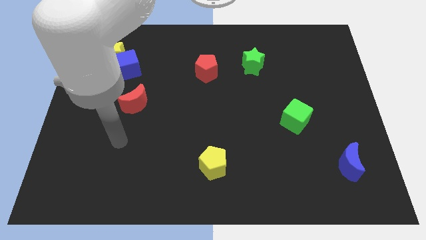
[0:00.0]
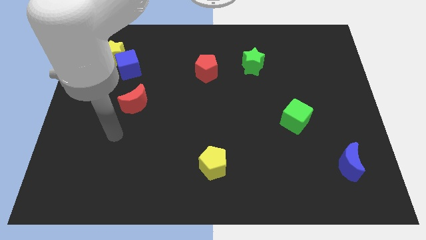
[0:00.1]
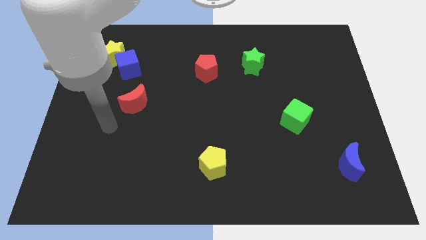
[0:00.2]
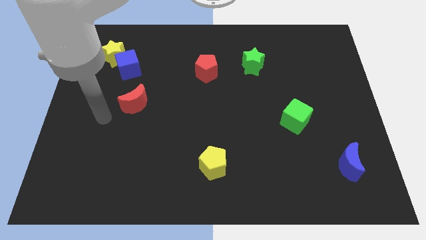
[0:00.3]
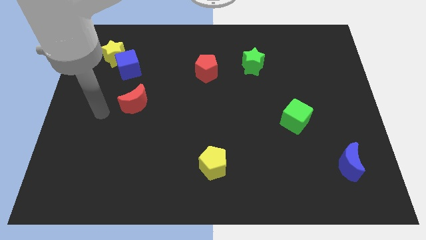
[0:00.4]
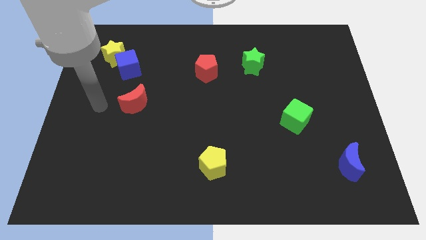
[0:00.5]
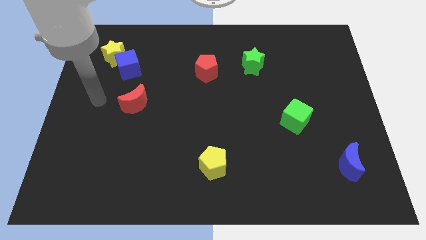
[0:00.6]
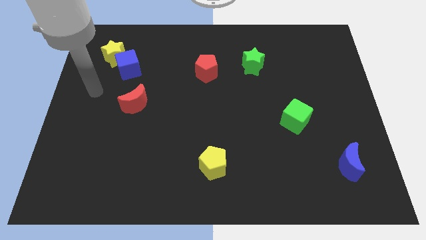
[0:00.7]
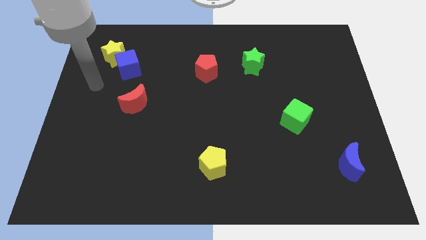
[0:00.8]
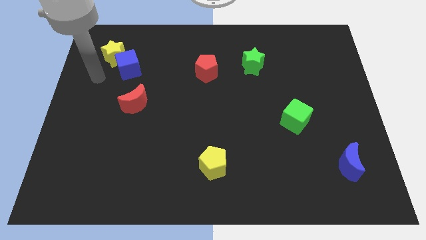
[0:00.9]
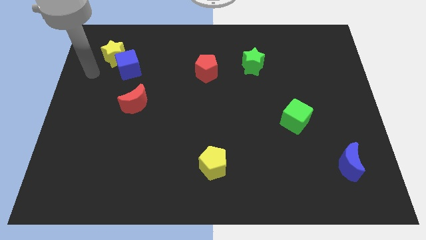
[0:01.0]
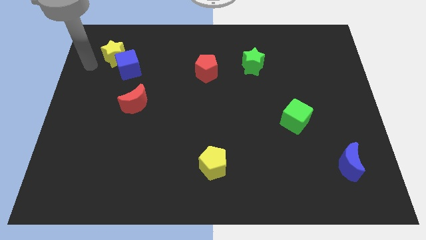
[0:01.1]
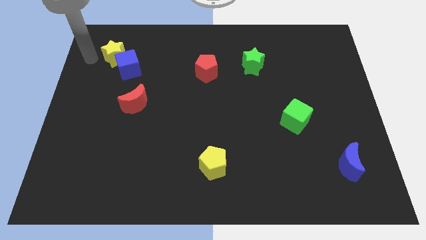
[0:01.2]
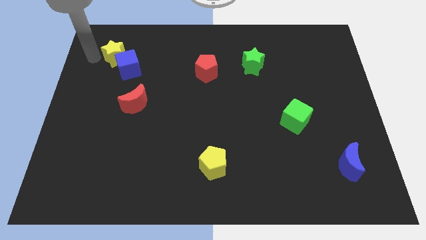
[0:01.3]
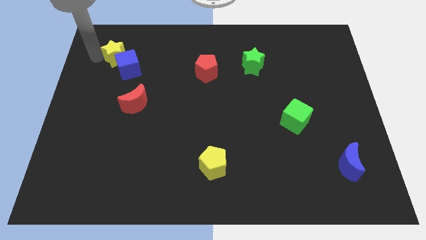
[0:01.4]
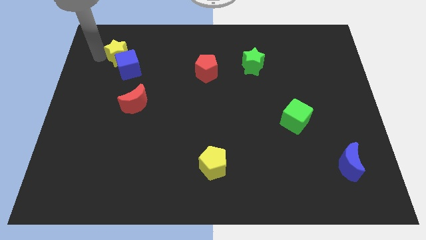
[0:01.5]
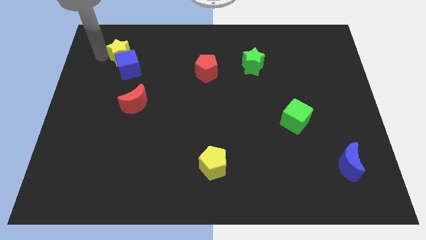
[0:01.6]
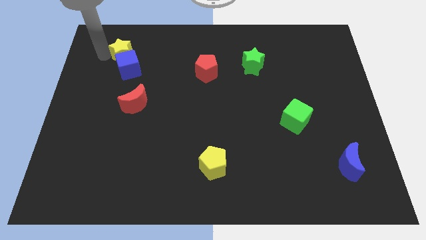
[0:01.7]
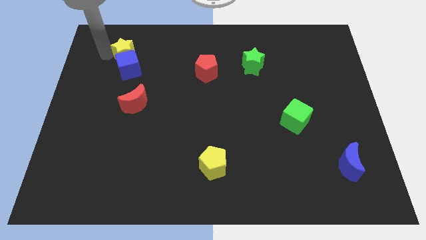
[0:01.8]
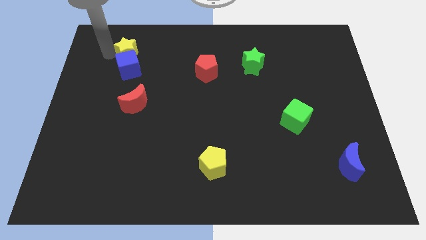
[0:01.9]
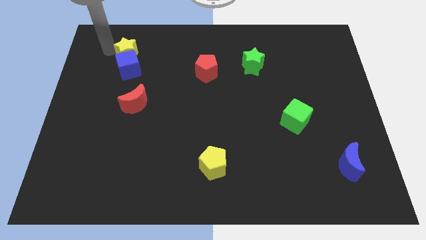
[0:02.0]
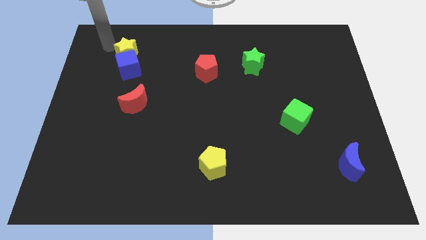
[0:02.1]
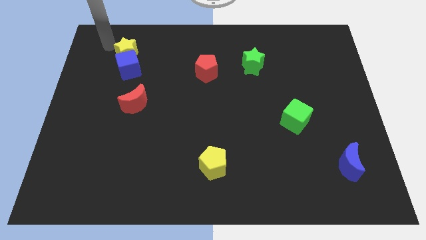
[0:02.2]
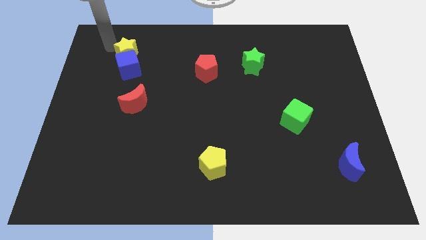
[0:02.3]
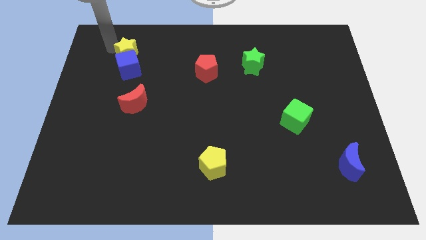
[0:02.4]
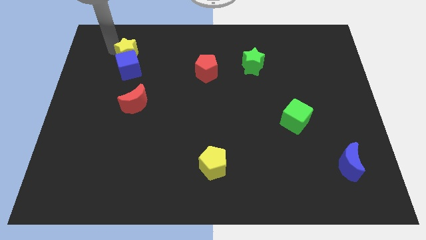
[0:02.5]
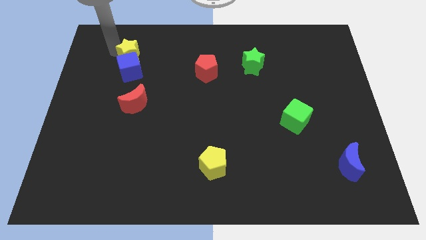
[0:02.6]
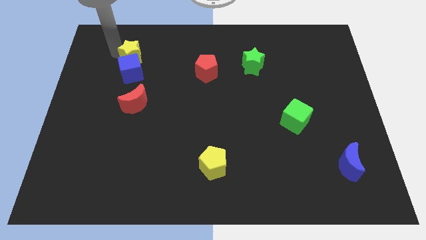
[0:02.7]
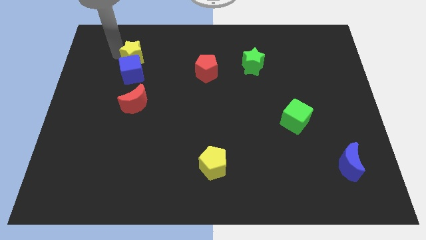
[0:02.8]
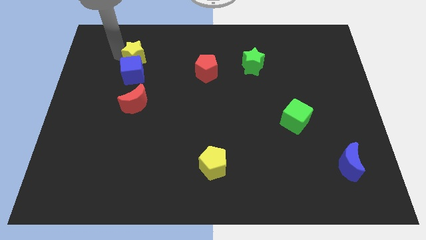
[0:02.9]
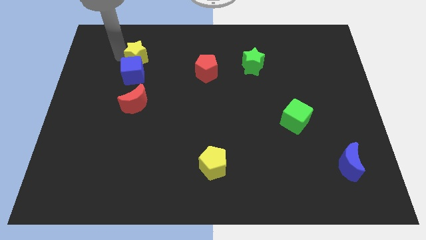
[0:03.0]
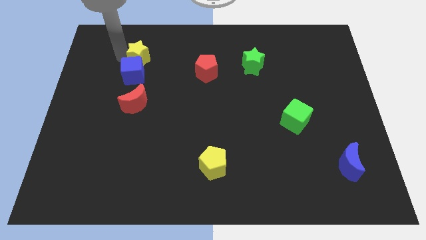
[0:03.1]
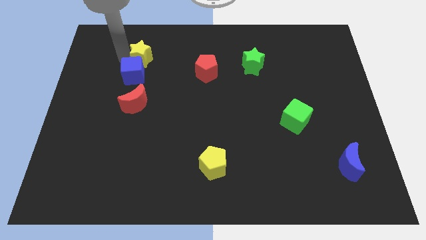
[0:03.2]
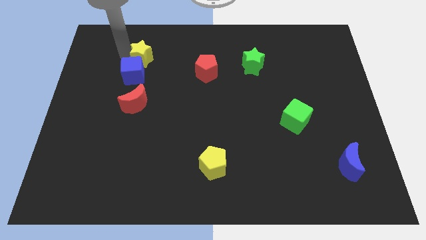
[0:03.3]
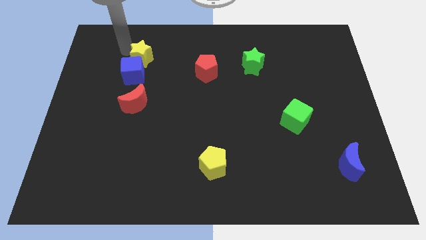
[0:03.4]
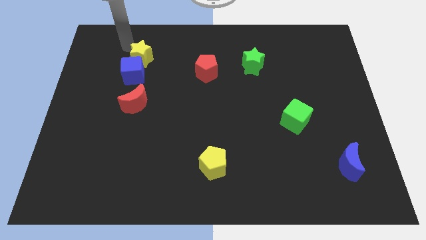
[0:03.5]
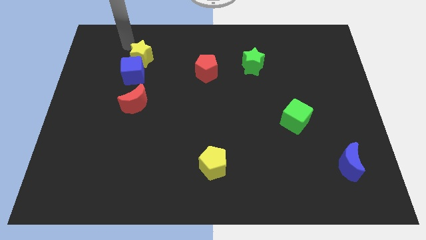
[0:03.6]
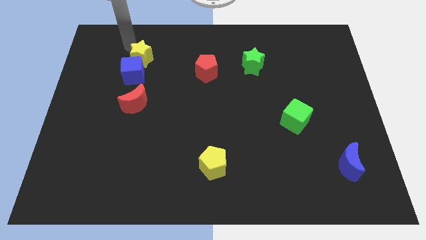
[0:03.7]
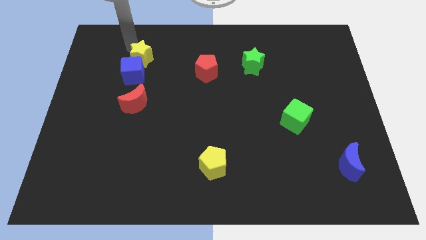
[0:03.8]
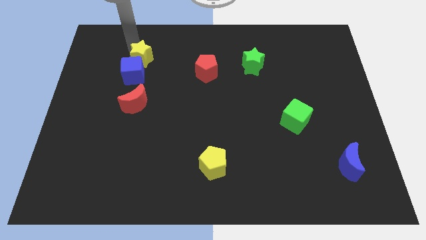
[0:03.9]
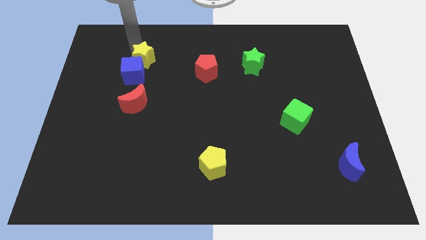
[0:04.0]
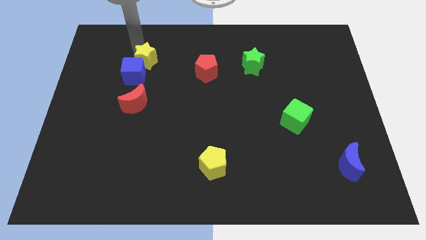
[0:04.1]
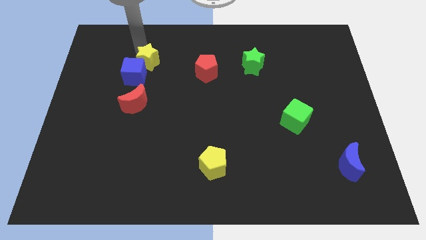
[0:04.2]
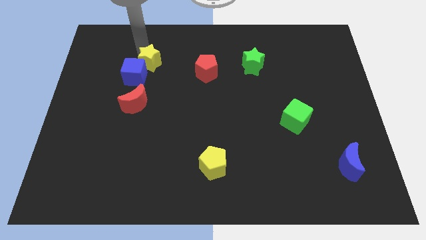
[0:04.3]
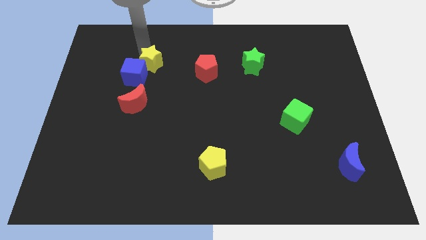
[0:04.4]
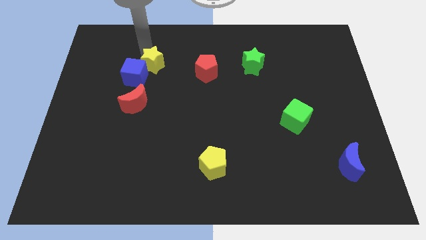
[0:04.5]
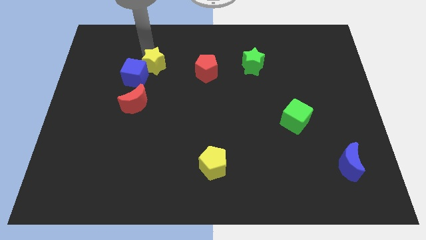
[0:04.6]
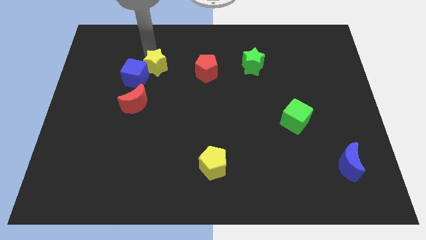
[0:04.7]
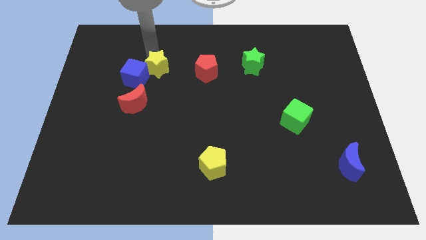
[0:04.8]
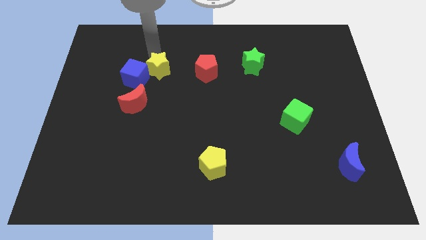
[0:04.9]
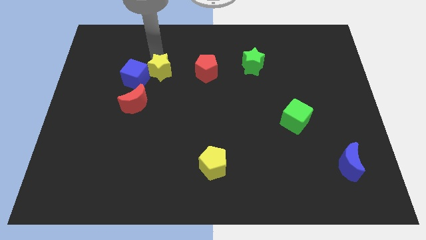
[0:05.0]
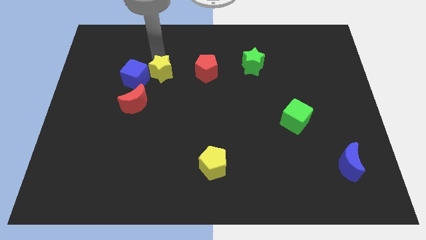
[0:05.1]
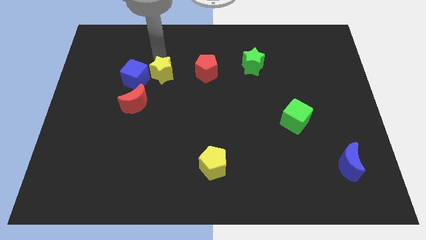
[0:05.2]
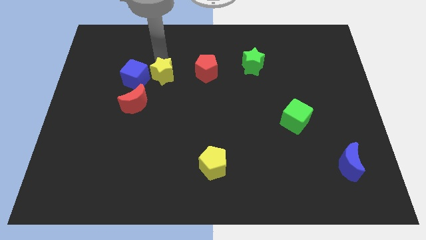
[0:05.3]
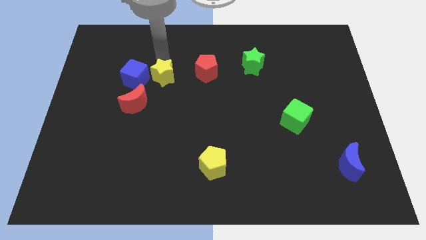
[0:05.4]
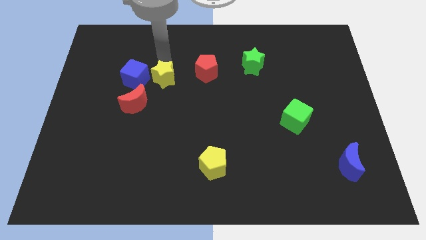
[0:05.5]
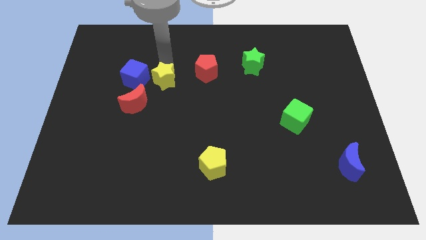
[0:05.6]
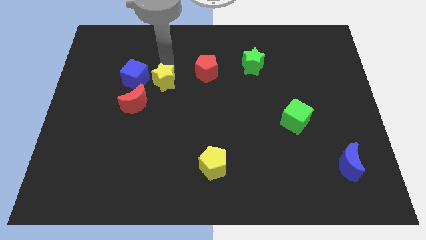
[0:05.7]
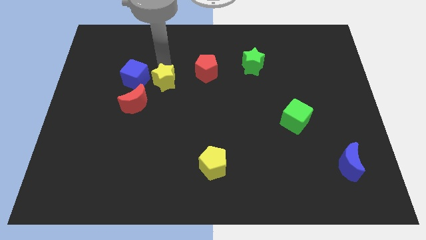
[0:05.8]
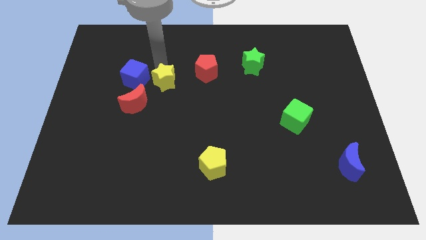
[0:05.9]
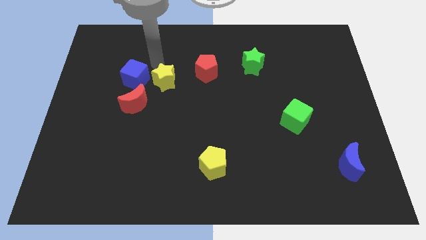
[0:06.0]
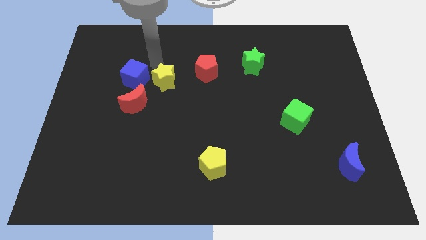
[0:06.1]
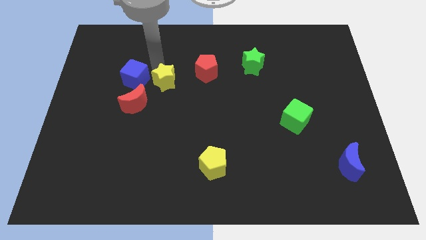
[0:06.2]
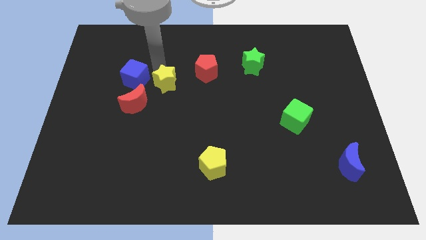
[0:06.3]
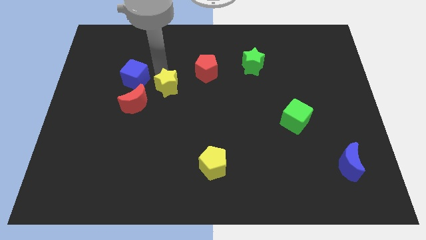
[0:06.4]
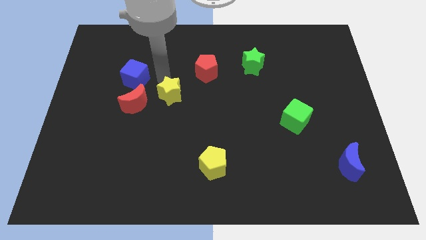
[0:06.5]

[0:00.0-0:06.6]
push the yellow star diagonally downwards and to the right

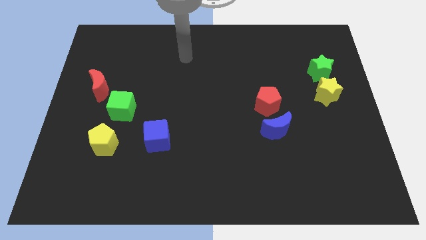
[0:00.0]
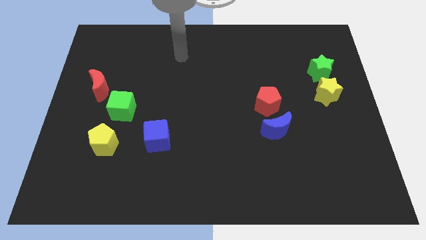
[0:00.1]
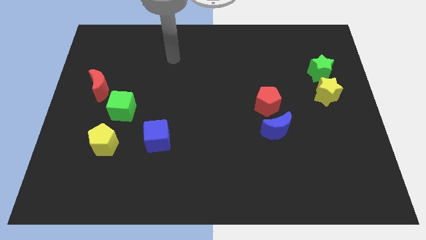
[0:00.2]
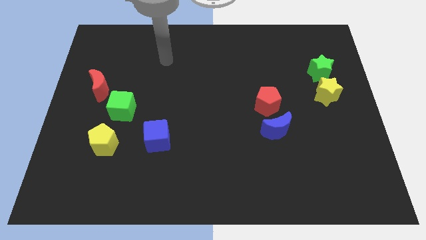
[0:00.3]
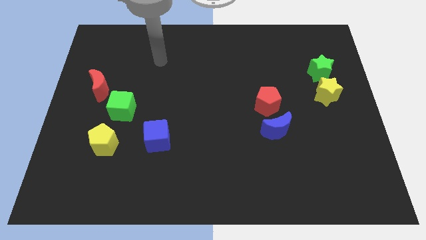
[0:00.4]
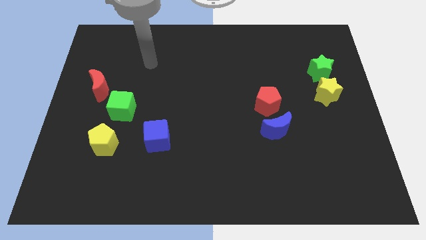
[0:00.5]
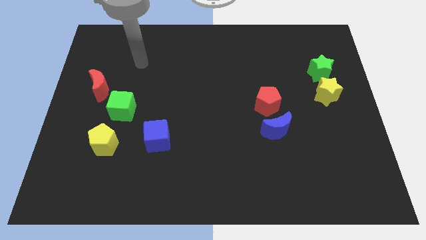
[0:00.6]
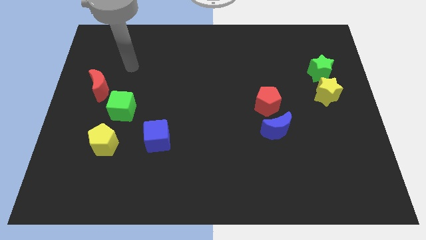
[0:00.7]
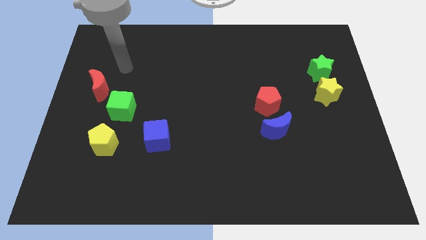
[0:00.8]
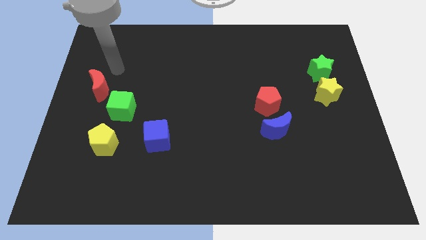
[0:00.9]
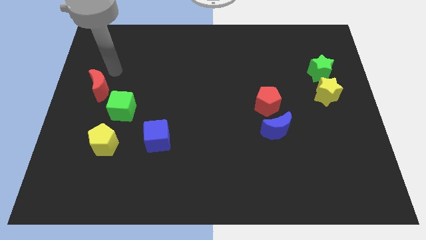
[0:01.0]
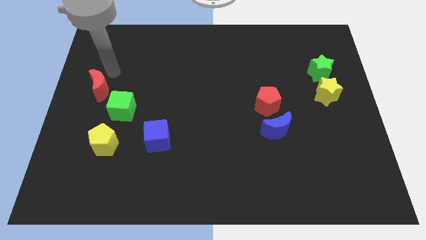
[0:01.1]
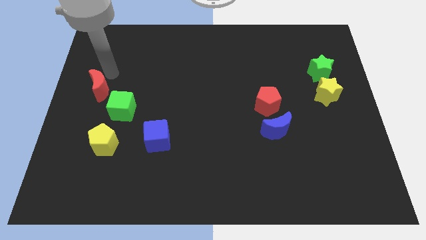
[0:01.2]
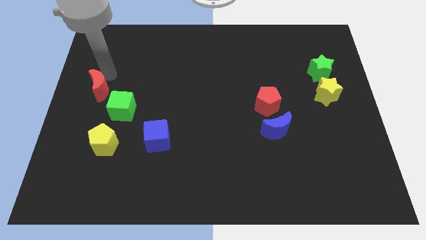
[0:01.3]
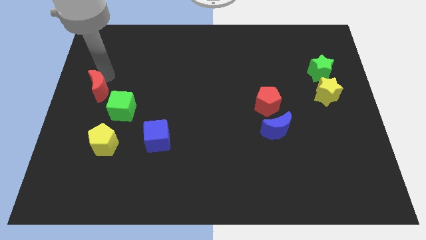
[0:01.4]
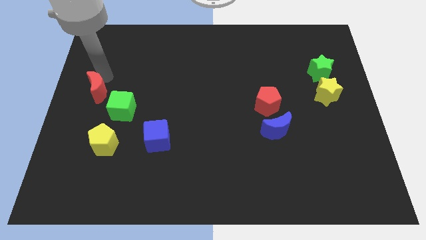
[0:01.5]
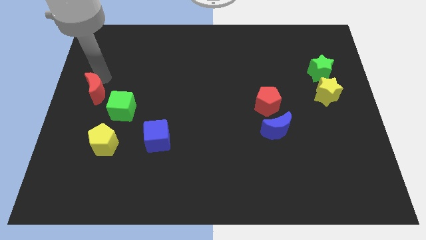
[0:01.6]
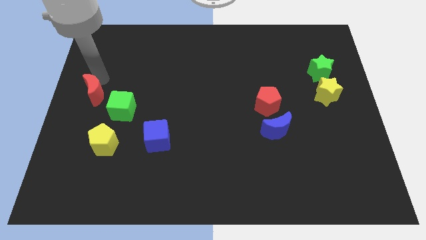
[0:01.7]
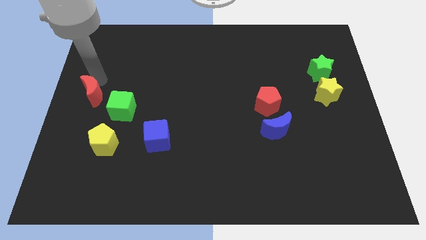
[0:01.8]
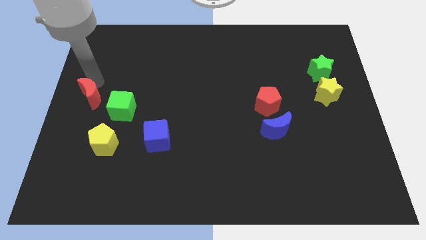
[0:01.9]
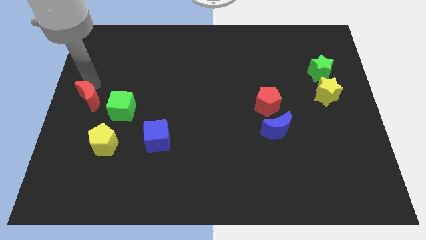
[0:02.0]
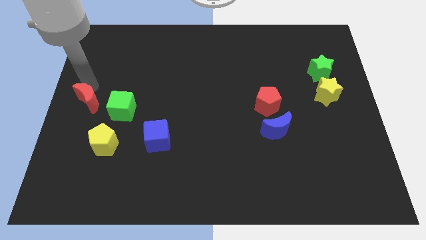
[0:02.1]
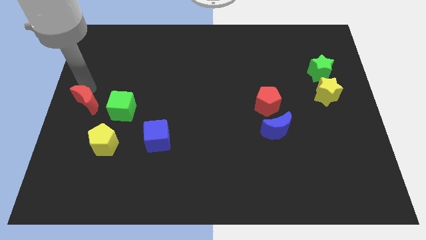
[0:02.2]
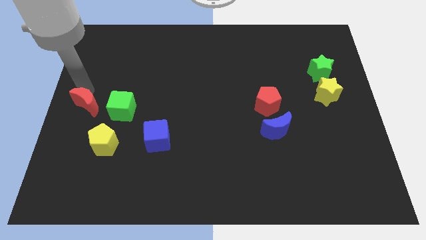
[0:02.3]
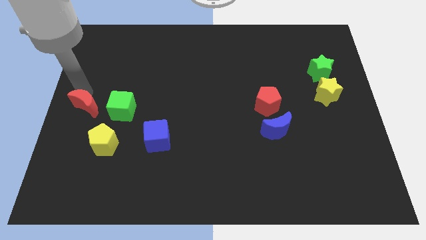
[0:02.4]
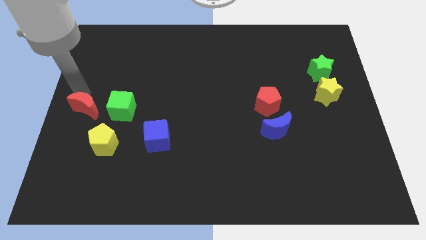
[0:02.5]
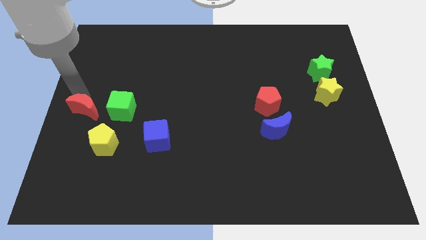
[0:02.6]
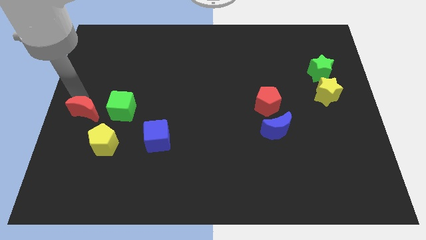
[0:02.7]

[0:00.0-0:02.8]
slightly slide the red moon down
